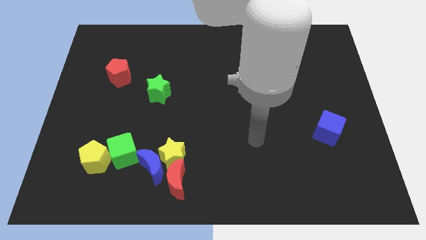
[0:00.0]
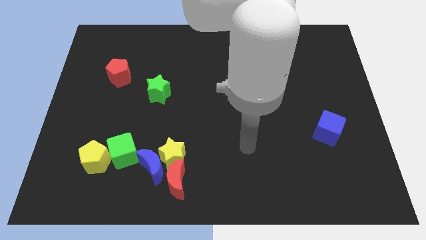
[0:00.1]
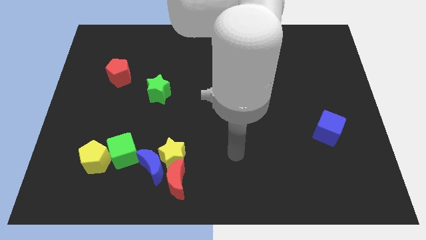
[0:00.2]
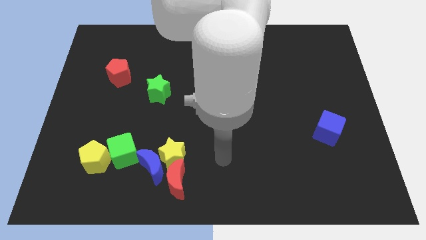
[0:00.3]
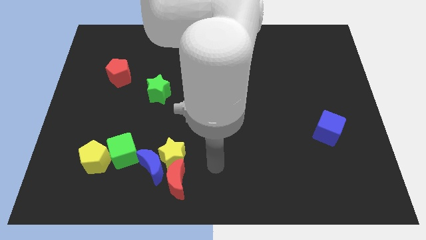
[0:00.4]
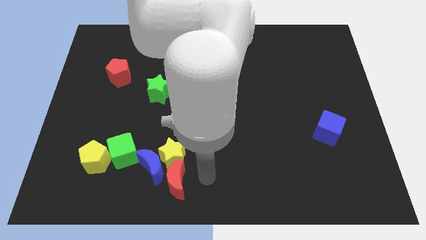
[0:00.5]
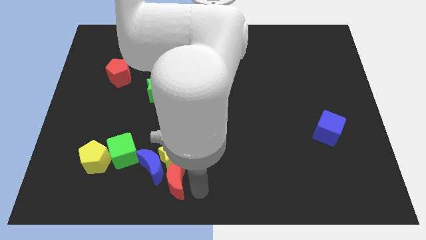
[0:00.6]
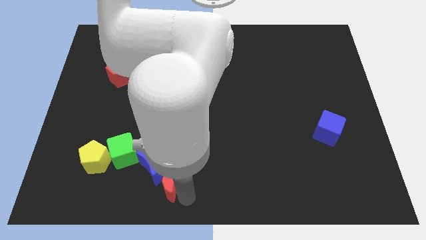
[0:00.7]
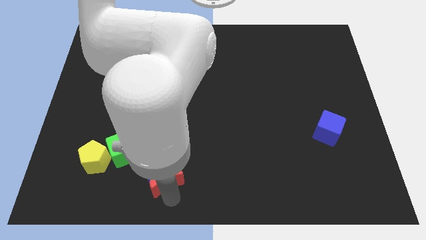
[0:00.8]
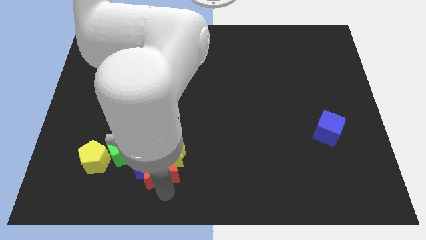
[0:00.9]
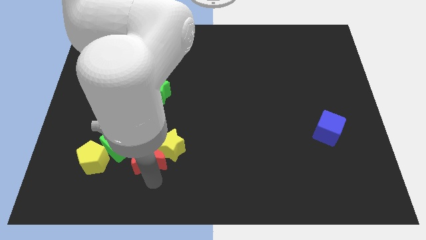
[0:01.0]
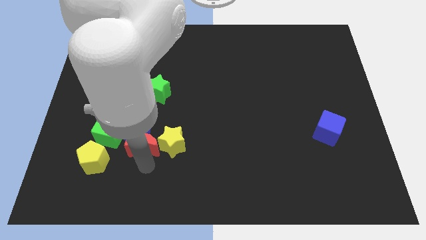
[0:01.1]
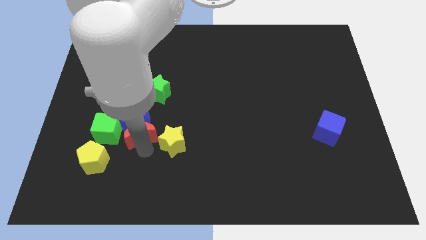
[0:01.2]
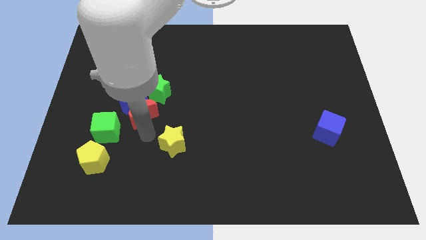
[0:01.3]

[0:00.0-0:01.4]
separate the yellow star from the blue moon and red moon

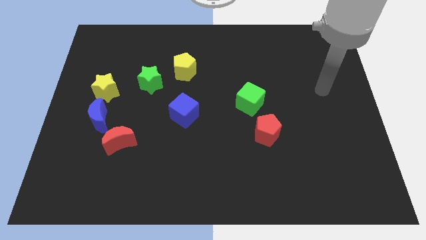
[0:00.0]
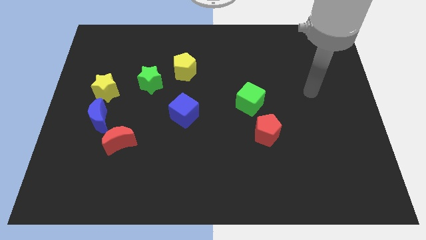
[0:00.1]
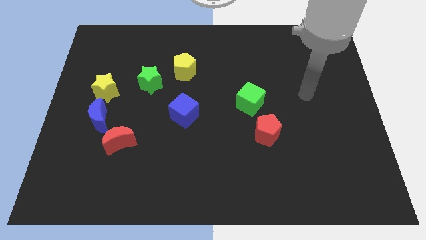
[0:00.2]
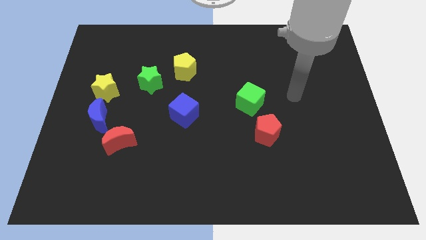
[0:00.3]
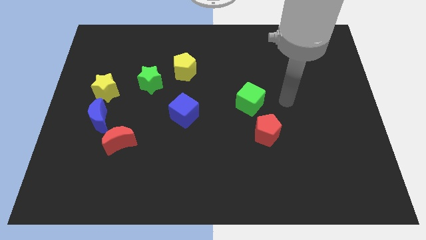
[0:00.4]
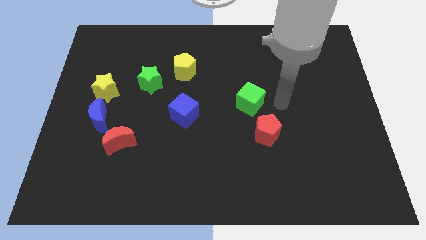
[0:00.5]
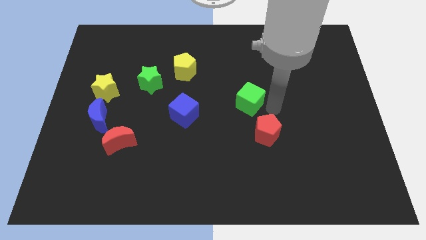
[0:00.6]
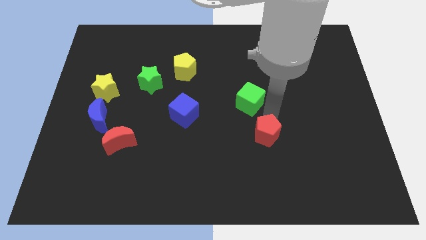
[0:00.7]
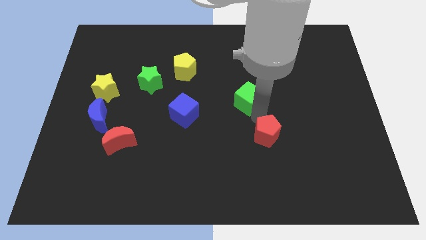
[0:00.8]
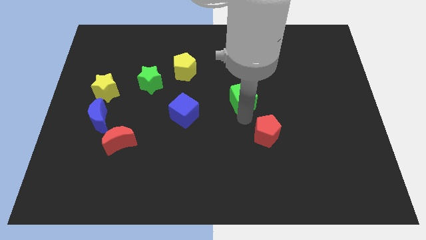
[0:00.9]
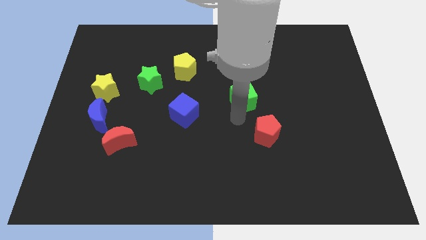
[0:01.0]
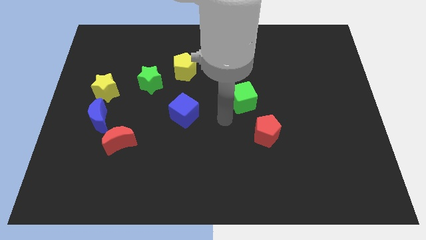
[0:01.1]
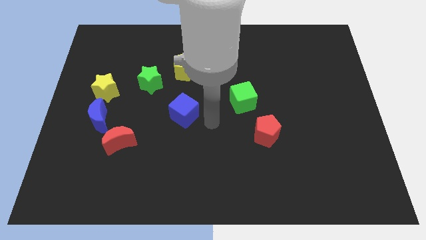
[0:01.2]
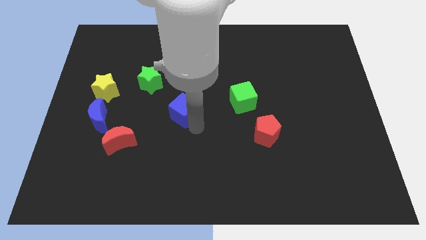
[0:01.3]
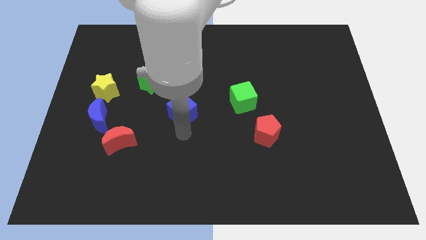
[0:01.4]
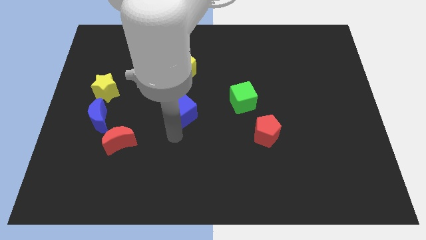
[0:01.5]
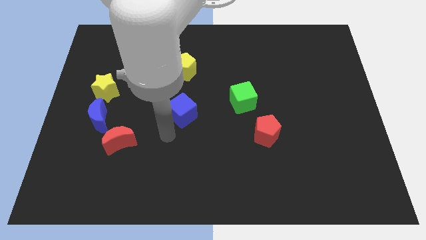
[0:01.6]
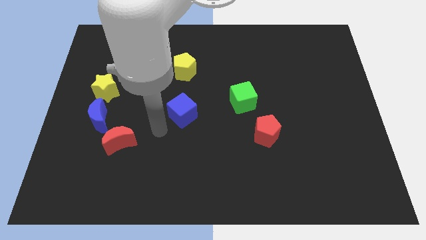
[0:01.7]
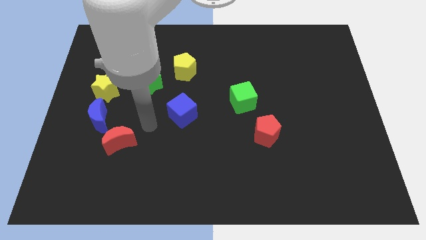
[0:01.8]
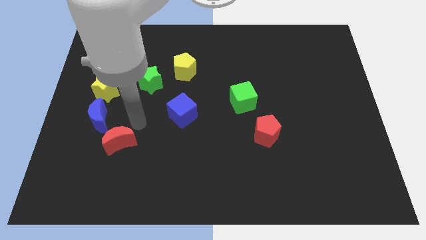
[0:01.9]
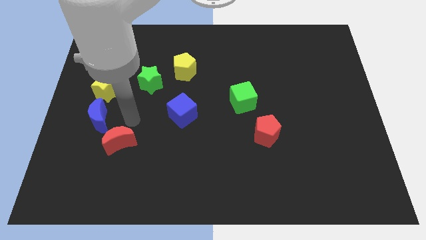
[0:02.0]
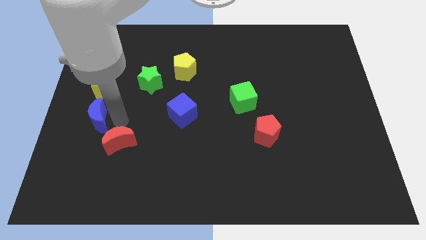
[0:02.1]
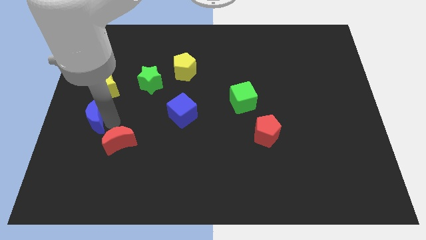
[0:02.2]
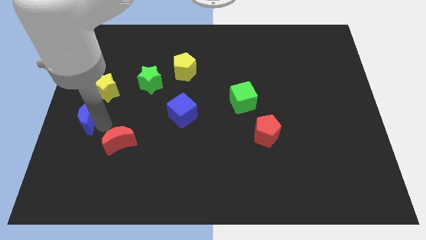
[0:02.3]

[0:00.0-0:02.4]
separate the red moon from the blue moon

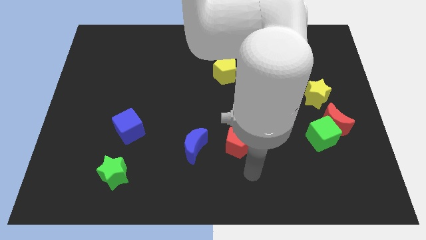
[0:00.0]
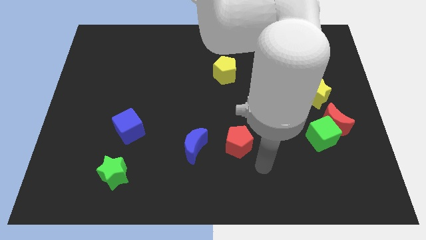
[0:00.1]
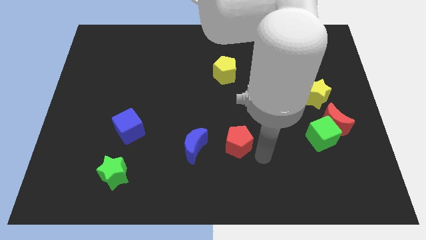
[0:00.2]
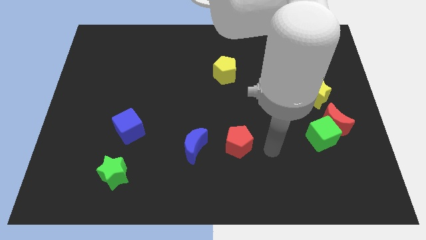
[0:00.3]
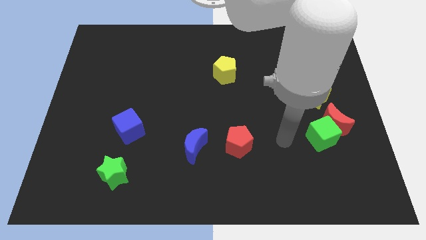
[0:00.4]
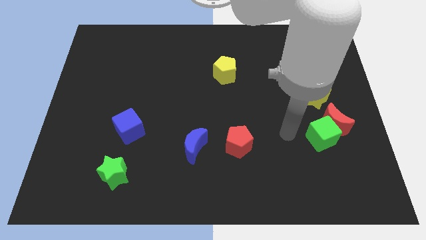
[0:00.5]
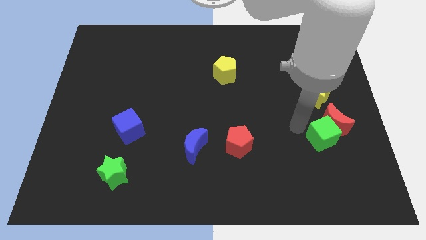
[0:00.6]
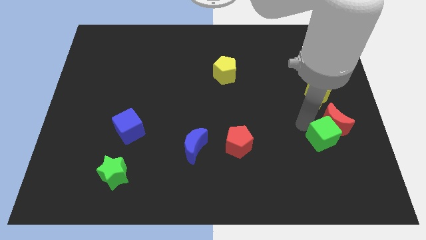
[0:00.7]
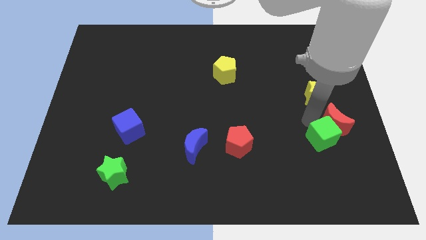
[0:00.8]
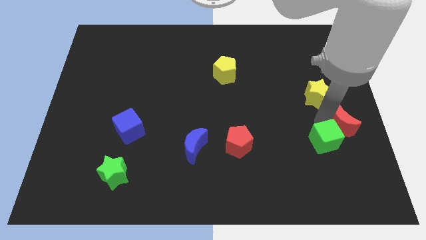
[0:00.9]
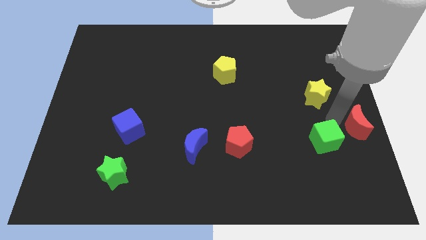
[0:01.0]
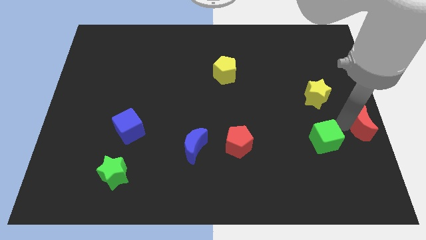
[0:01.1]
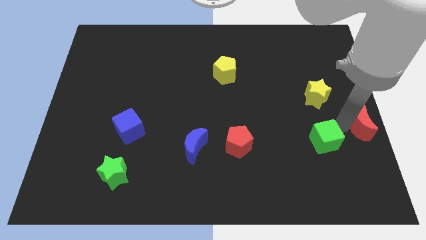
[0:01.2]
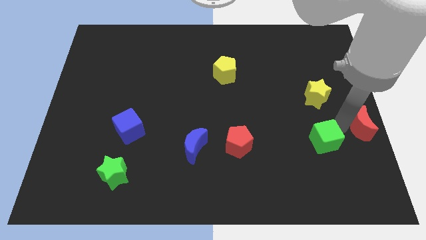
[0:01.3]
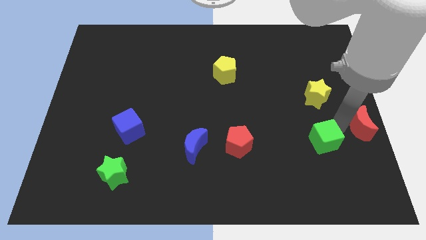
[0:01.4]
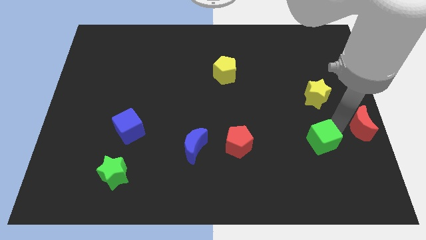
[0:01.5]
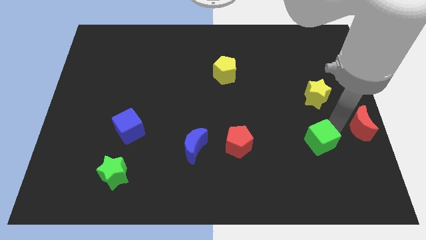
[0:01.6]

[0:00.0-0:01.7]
move the green cube away from the red moon

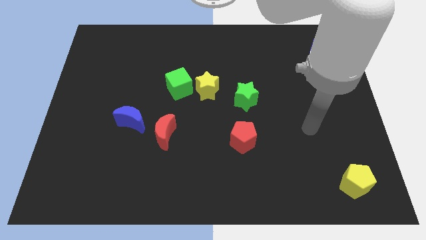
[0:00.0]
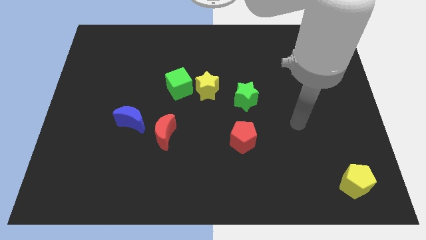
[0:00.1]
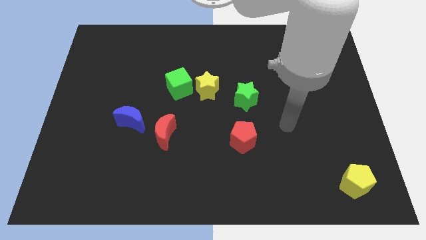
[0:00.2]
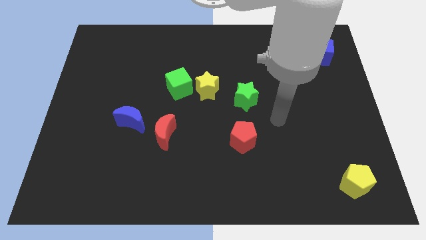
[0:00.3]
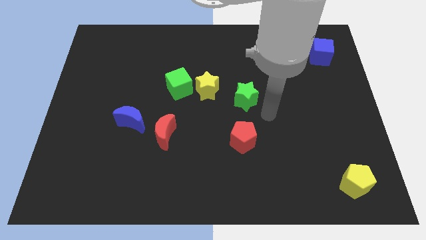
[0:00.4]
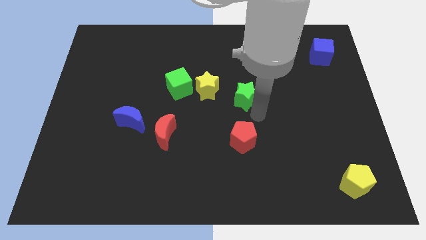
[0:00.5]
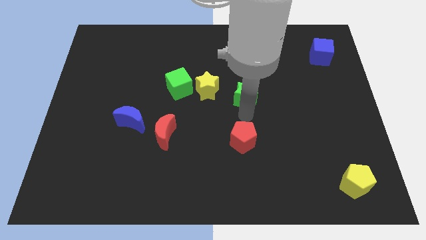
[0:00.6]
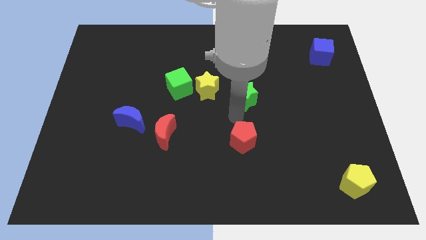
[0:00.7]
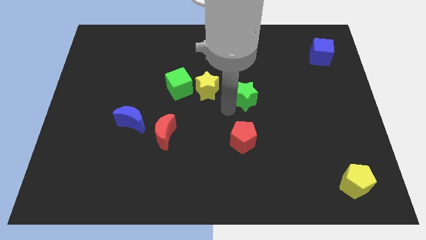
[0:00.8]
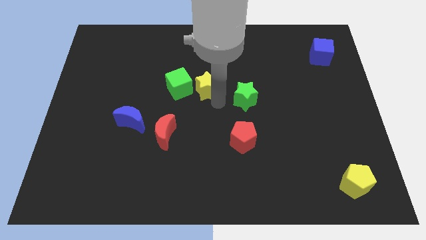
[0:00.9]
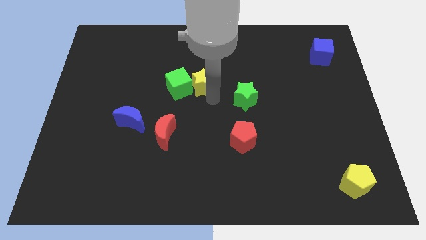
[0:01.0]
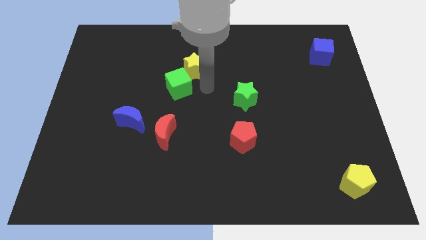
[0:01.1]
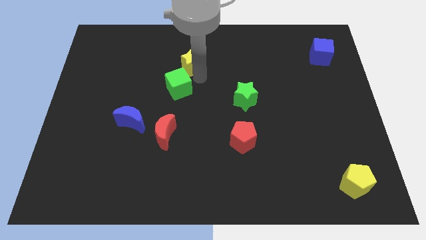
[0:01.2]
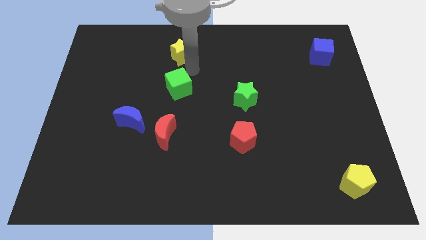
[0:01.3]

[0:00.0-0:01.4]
pull the green cube apart from the yellow star

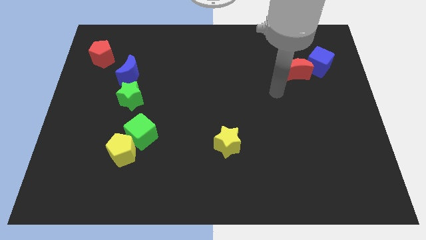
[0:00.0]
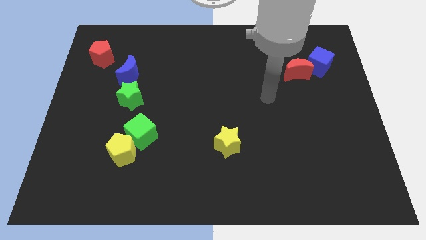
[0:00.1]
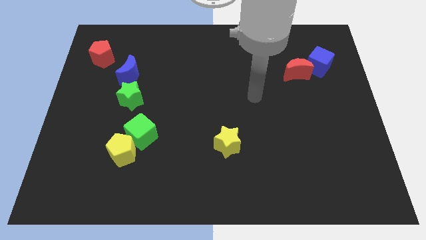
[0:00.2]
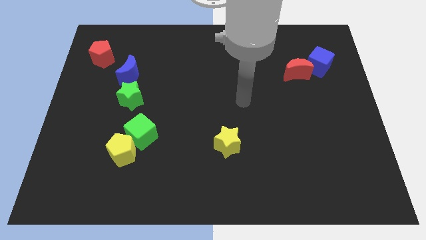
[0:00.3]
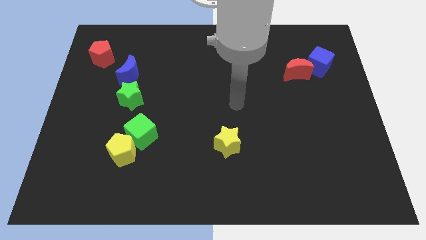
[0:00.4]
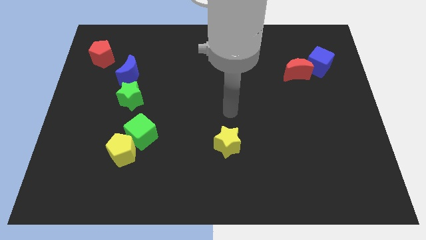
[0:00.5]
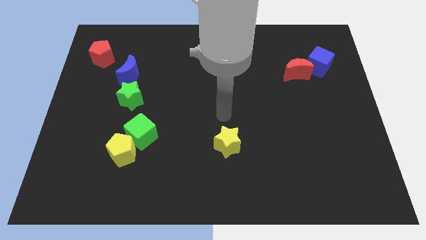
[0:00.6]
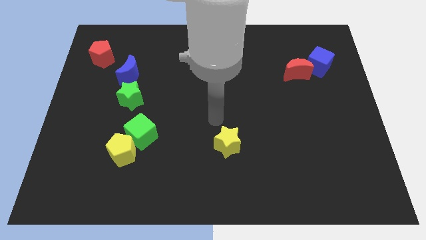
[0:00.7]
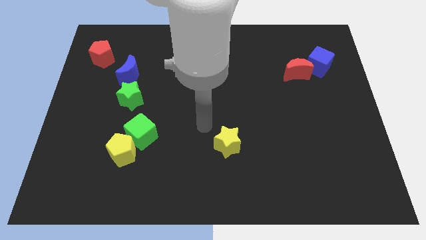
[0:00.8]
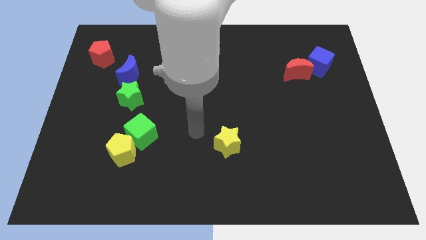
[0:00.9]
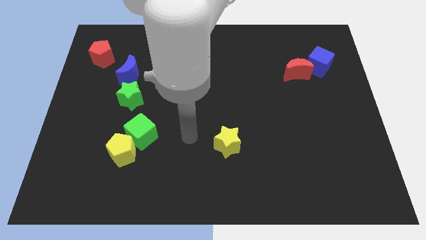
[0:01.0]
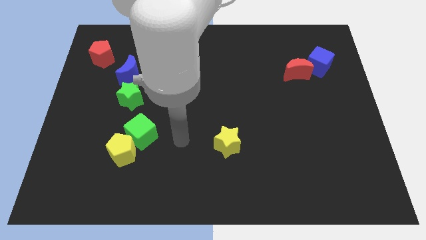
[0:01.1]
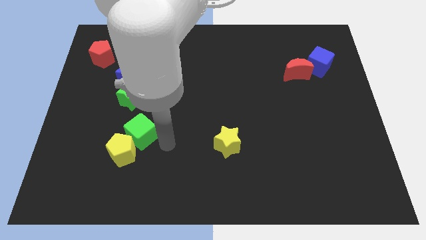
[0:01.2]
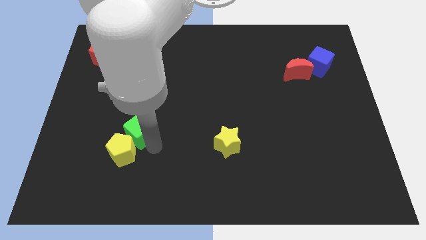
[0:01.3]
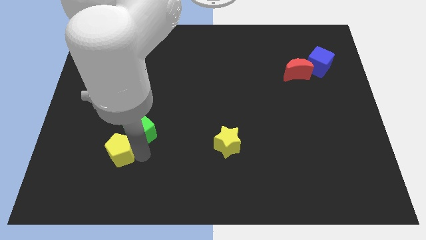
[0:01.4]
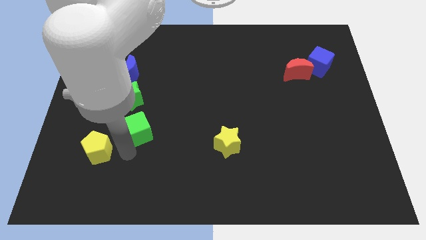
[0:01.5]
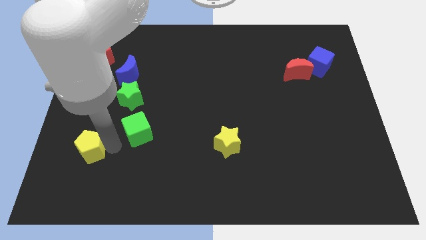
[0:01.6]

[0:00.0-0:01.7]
separate the green cube from the yellow pentagon

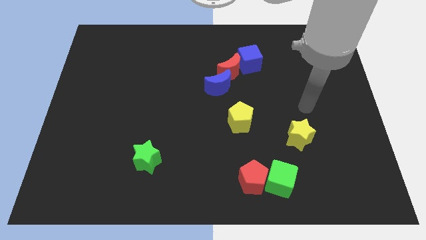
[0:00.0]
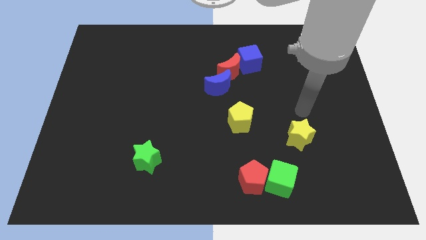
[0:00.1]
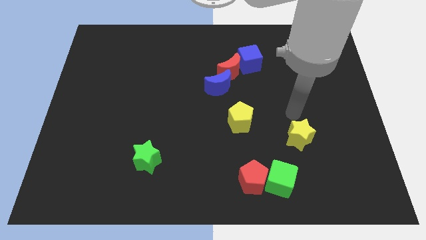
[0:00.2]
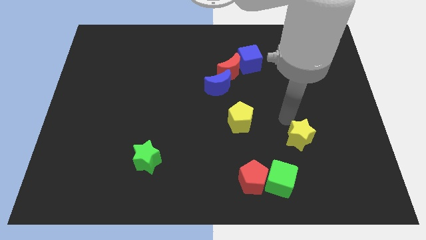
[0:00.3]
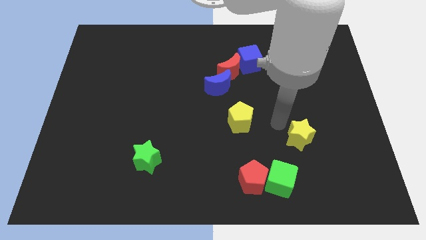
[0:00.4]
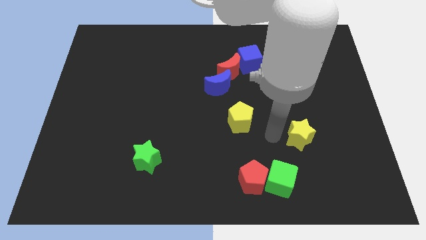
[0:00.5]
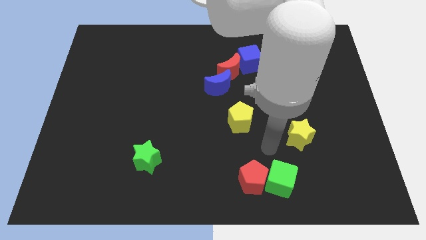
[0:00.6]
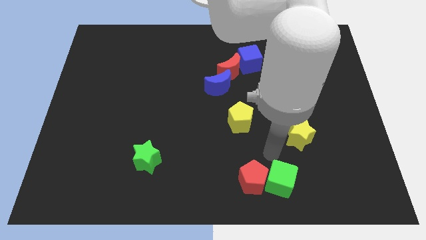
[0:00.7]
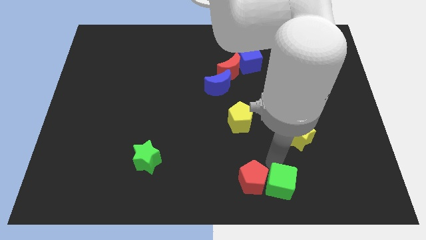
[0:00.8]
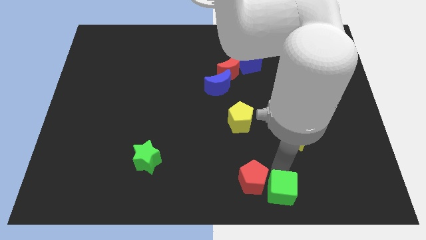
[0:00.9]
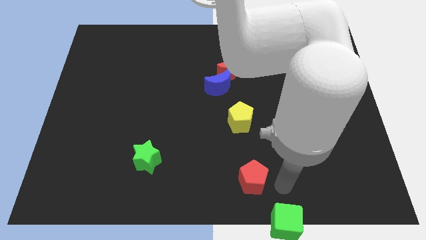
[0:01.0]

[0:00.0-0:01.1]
pull the red pentagon apart from the green cube
